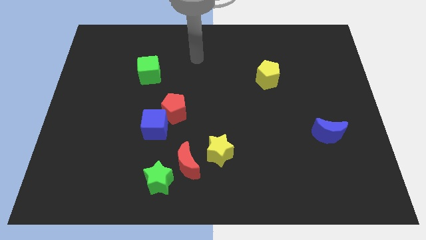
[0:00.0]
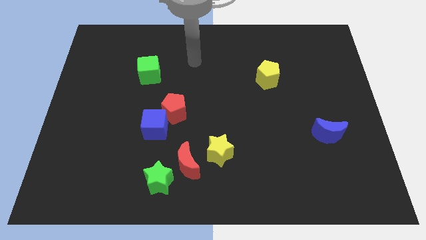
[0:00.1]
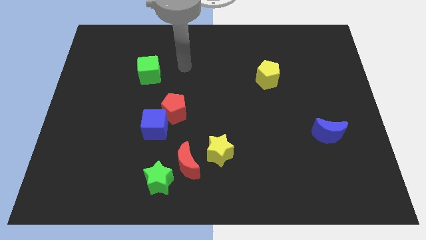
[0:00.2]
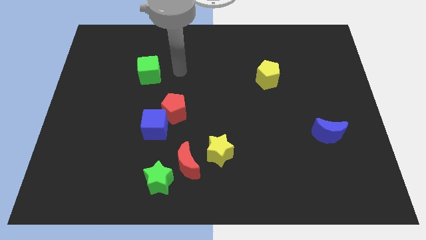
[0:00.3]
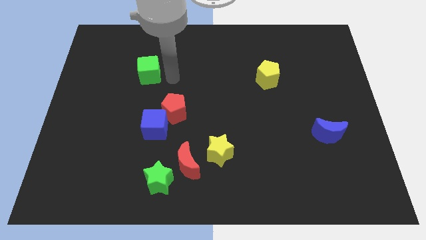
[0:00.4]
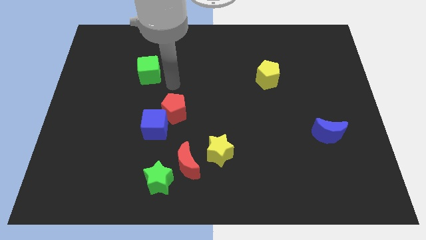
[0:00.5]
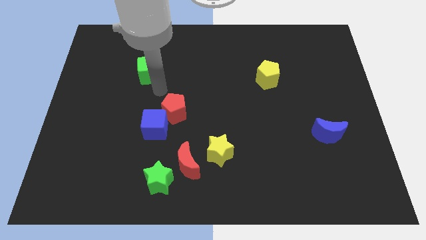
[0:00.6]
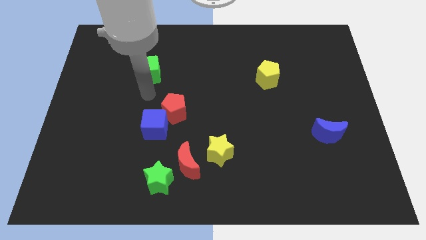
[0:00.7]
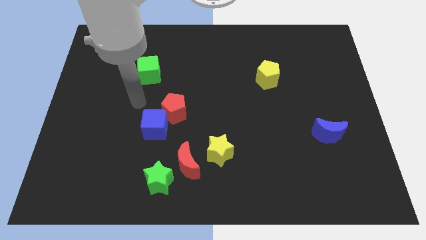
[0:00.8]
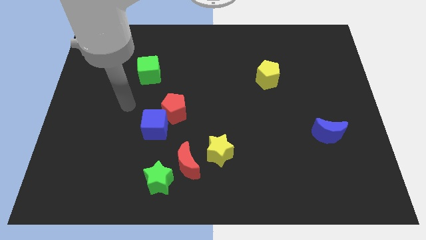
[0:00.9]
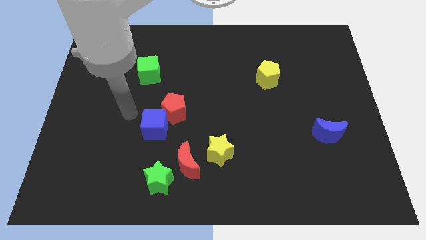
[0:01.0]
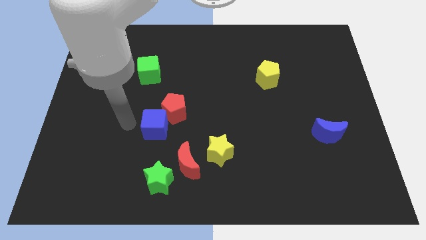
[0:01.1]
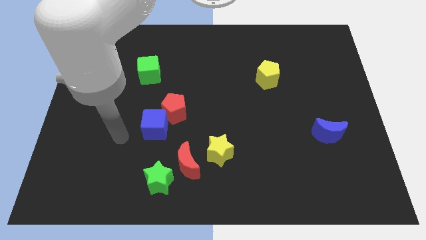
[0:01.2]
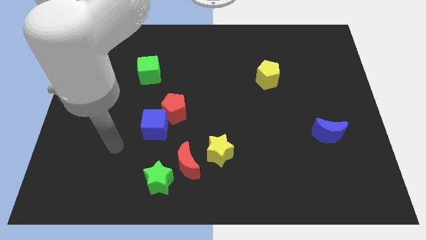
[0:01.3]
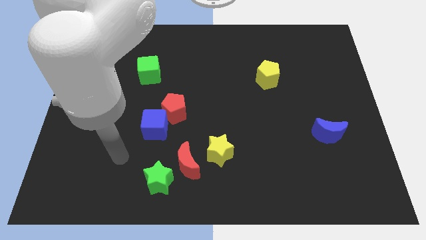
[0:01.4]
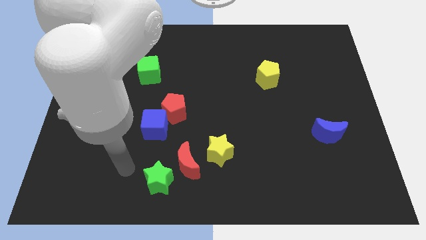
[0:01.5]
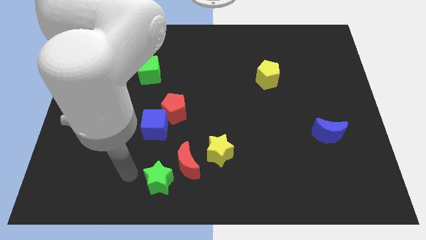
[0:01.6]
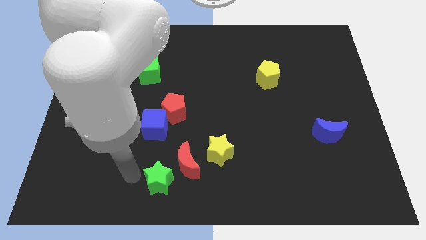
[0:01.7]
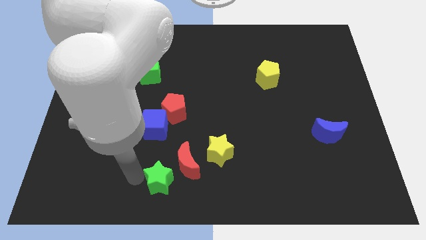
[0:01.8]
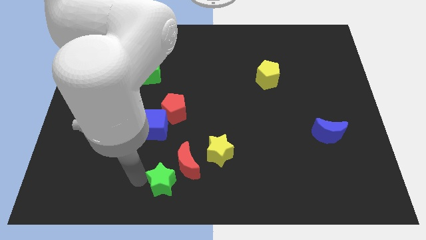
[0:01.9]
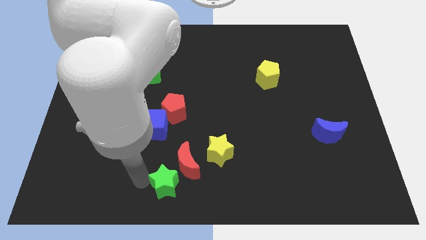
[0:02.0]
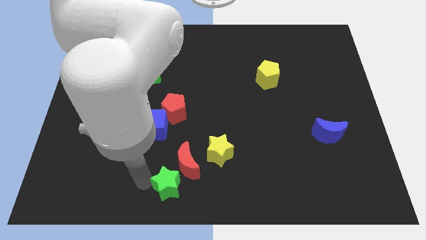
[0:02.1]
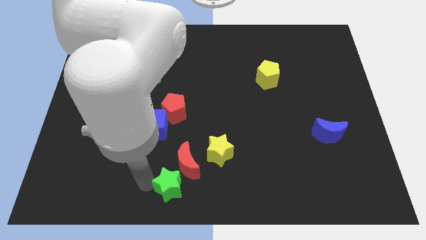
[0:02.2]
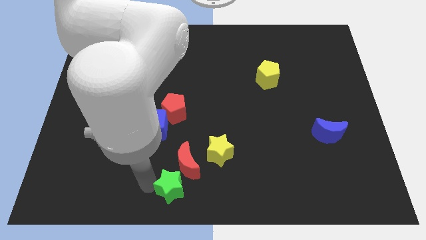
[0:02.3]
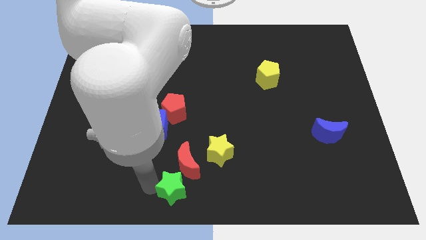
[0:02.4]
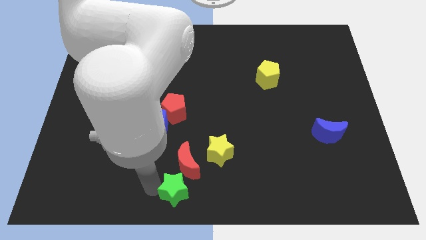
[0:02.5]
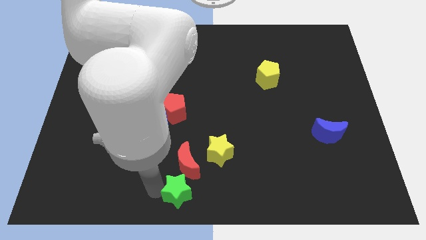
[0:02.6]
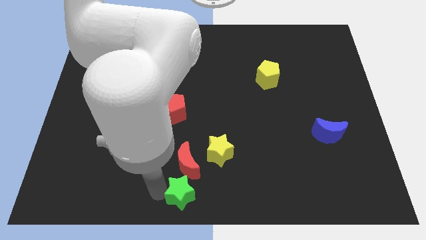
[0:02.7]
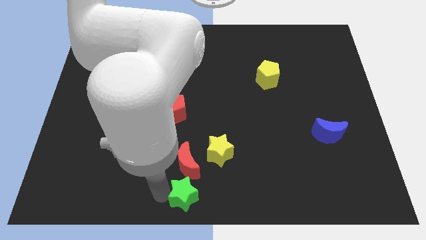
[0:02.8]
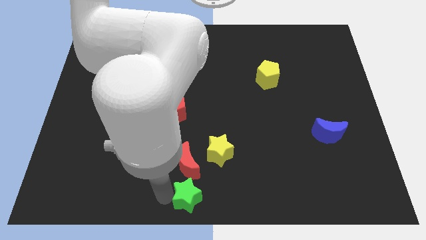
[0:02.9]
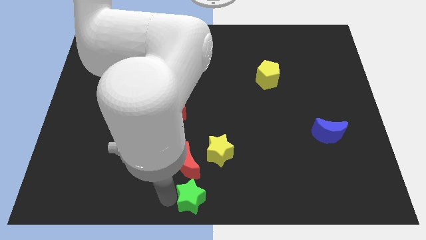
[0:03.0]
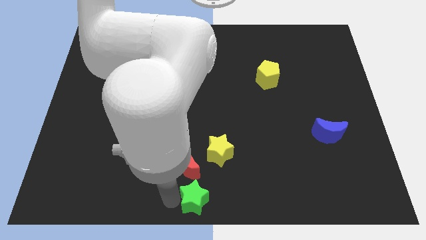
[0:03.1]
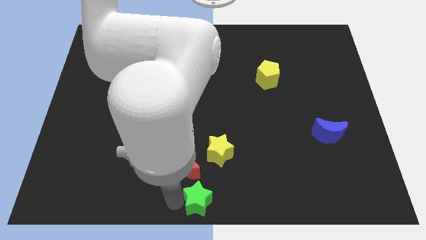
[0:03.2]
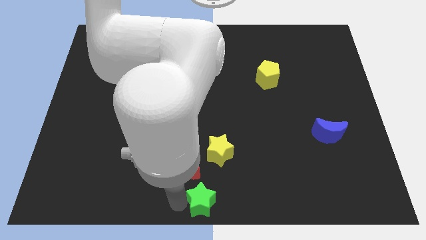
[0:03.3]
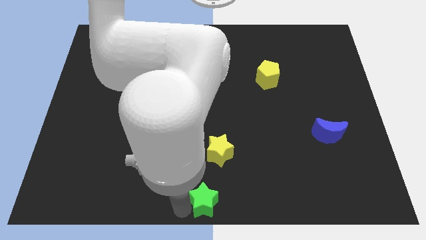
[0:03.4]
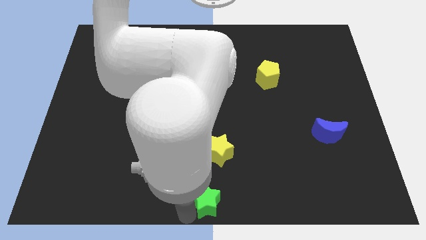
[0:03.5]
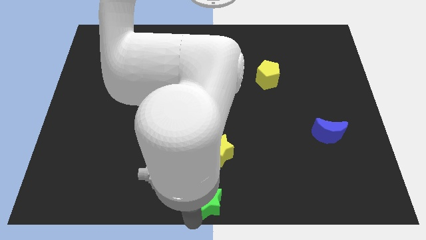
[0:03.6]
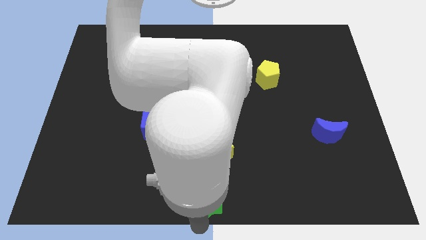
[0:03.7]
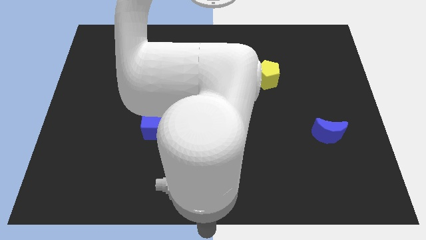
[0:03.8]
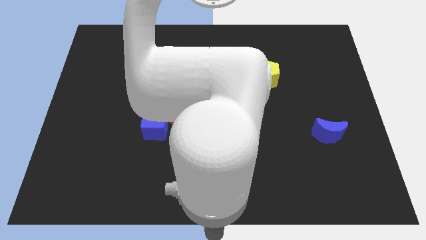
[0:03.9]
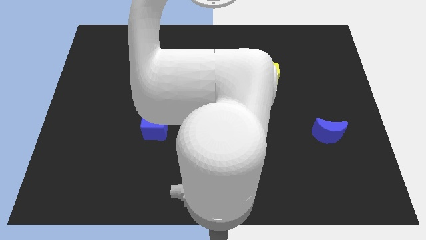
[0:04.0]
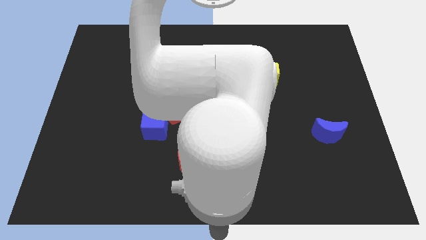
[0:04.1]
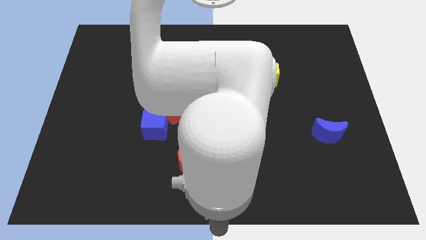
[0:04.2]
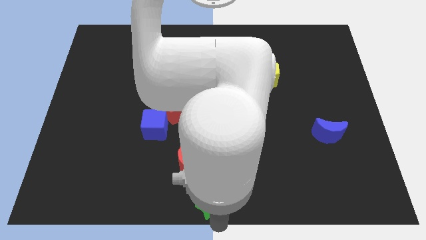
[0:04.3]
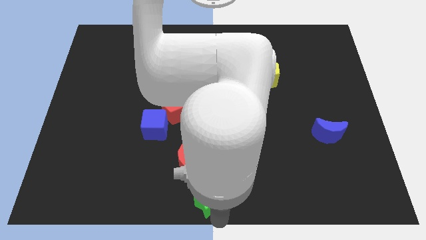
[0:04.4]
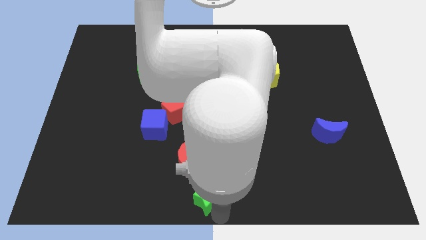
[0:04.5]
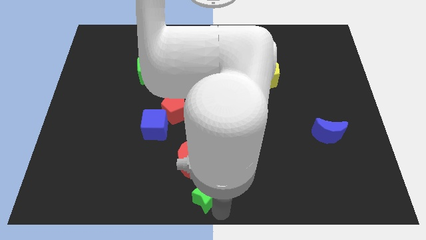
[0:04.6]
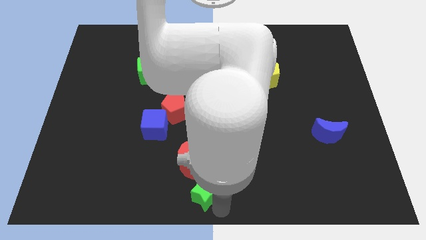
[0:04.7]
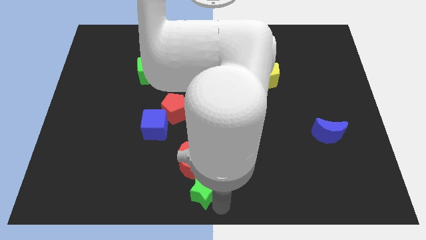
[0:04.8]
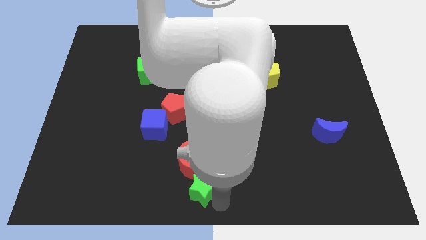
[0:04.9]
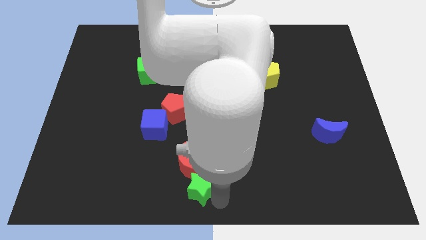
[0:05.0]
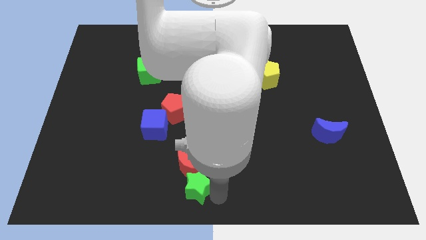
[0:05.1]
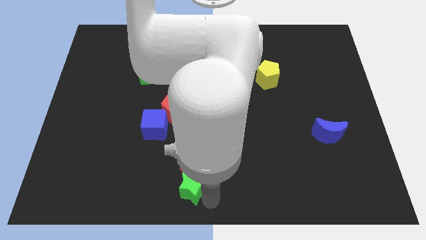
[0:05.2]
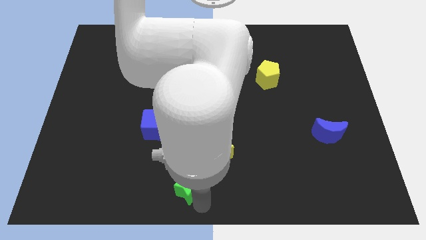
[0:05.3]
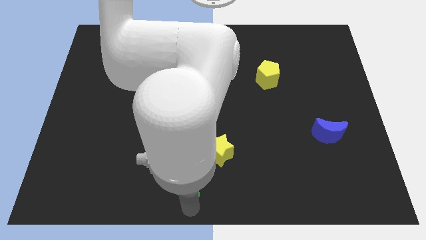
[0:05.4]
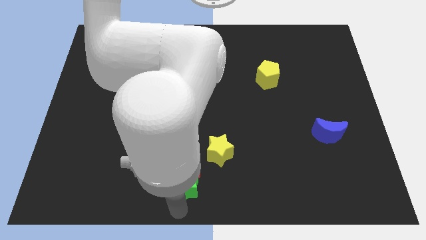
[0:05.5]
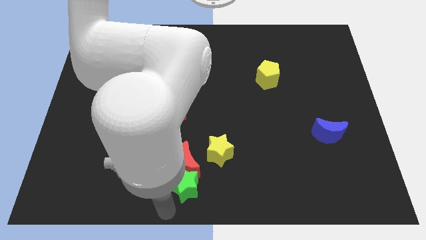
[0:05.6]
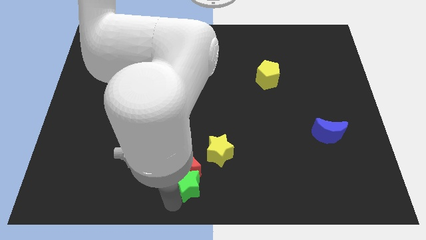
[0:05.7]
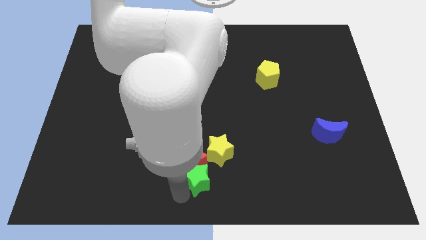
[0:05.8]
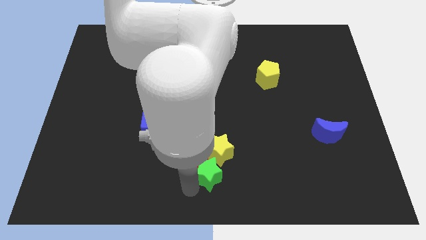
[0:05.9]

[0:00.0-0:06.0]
put the green star towards the yellow star

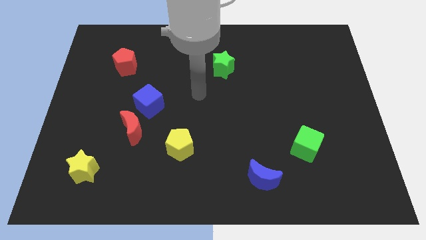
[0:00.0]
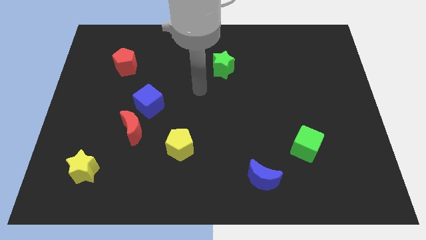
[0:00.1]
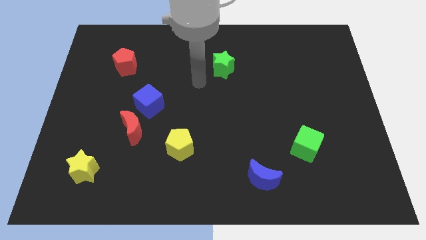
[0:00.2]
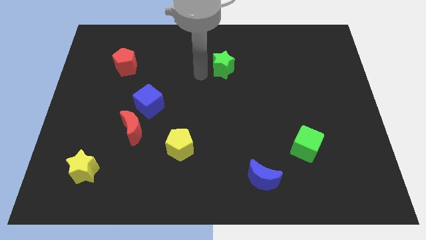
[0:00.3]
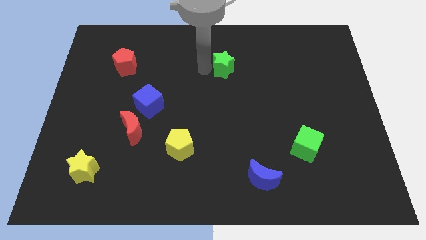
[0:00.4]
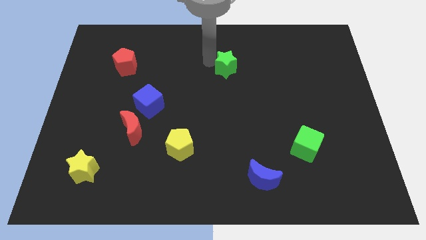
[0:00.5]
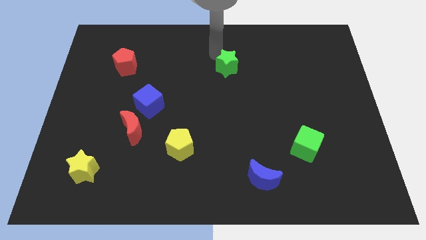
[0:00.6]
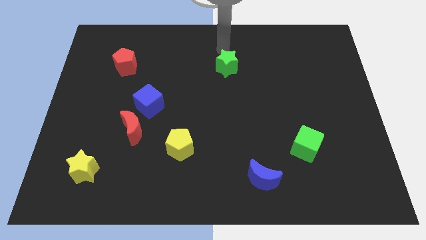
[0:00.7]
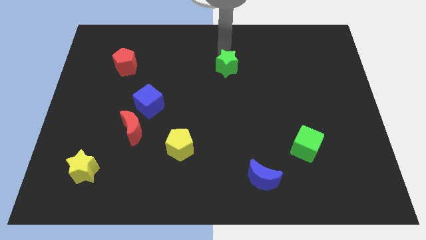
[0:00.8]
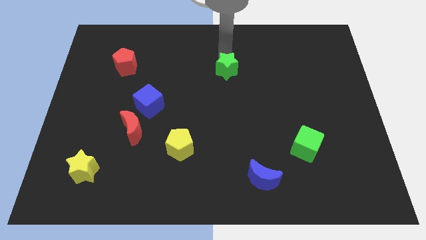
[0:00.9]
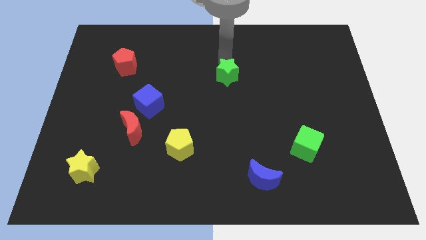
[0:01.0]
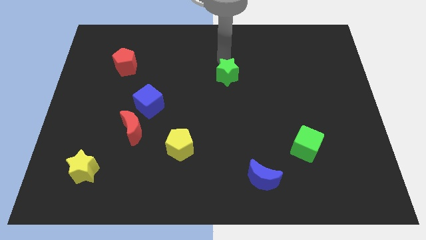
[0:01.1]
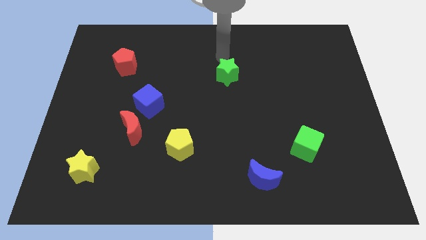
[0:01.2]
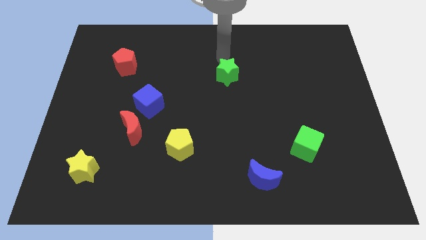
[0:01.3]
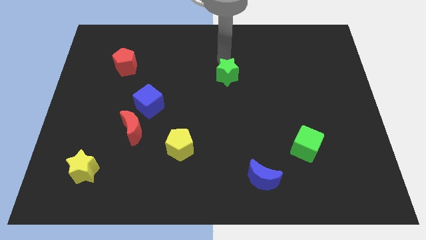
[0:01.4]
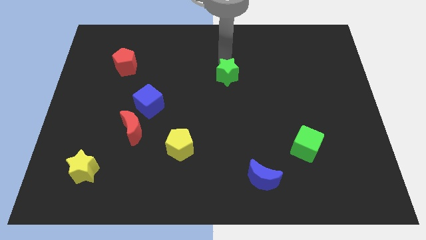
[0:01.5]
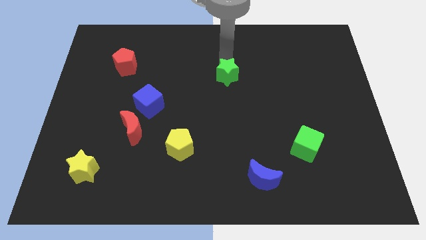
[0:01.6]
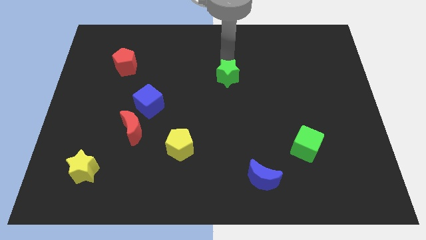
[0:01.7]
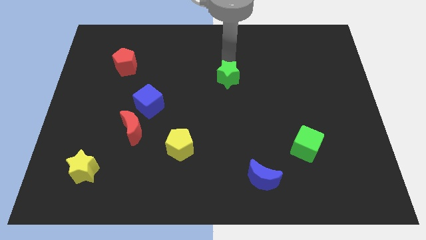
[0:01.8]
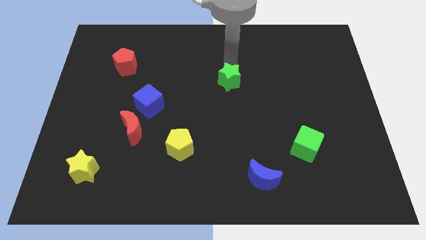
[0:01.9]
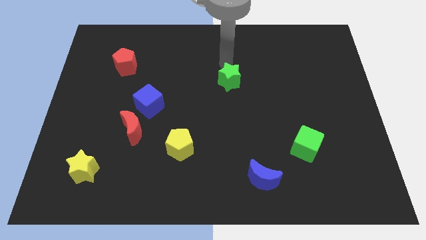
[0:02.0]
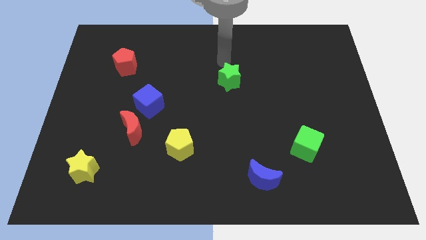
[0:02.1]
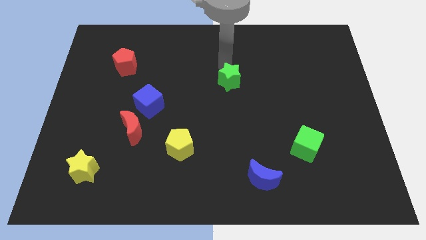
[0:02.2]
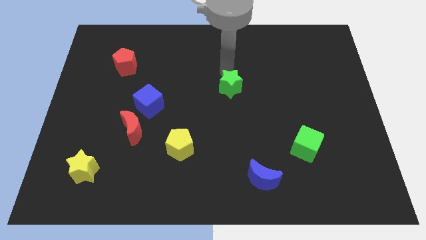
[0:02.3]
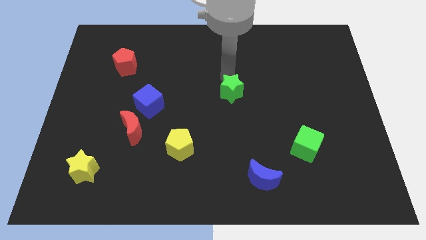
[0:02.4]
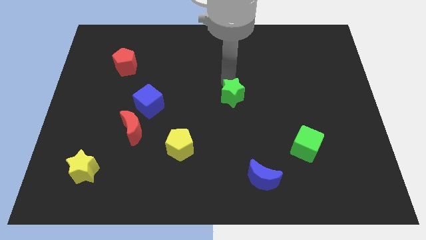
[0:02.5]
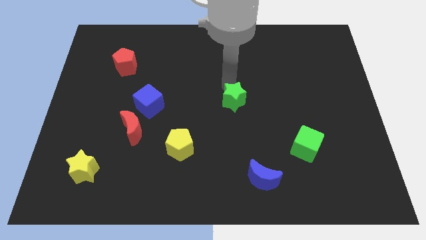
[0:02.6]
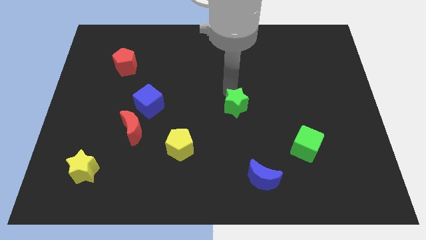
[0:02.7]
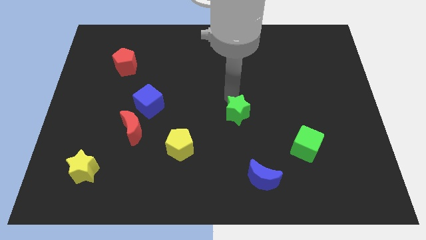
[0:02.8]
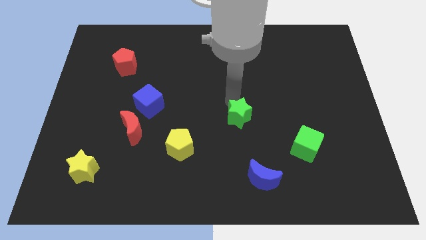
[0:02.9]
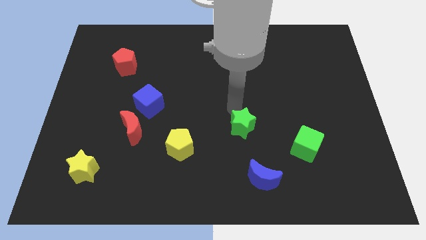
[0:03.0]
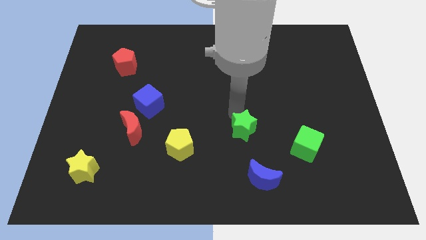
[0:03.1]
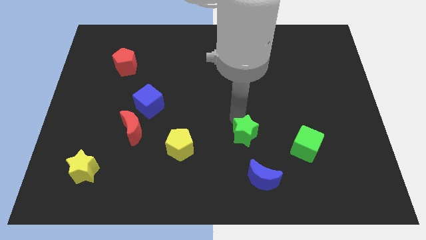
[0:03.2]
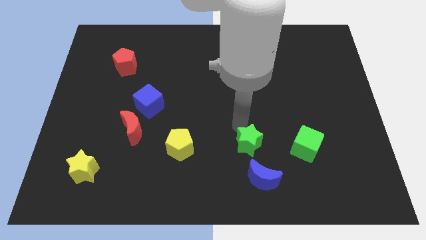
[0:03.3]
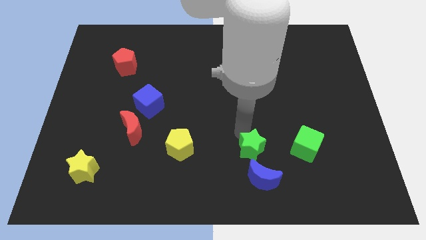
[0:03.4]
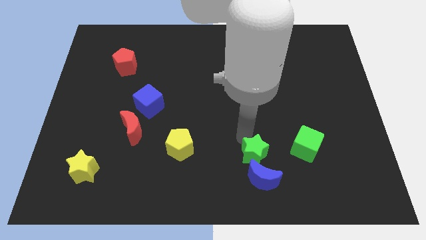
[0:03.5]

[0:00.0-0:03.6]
push the green star next to the blue moon
